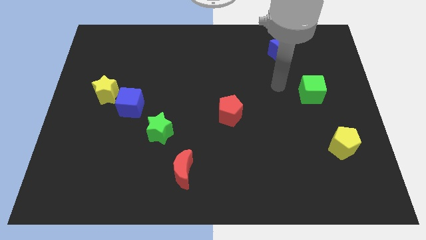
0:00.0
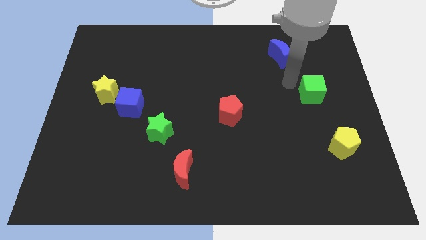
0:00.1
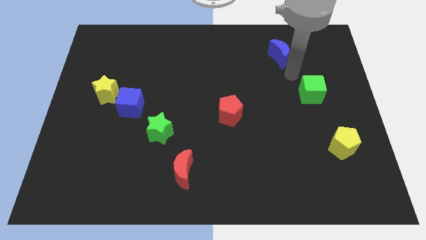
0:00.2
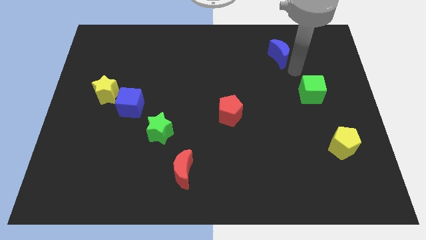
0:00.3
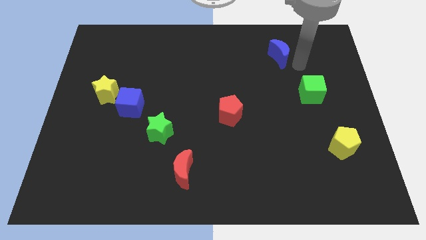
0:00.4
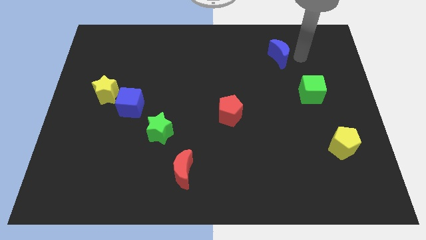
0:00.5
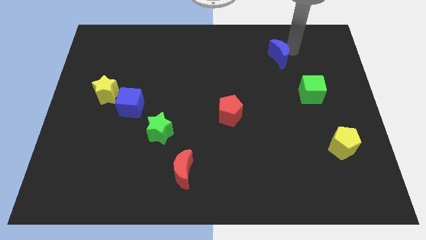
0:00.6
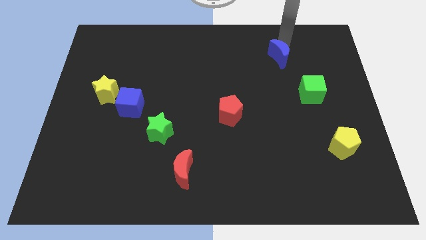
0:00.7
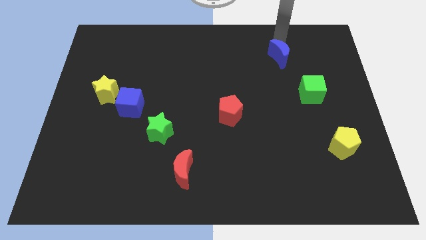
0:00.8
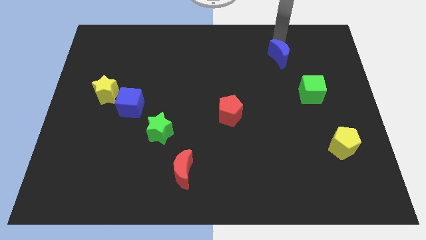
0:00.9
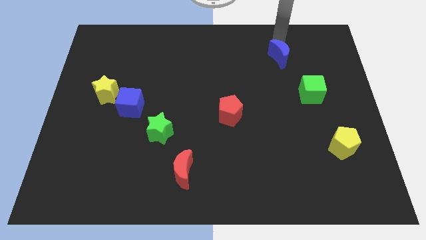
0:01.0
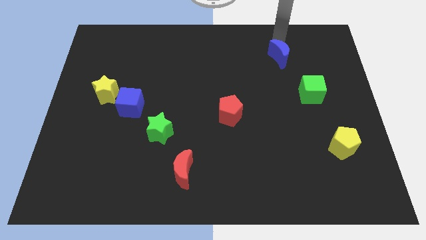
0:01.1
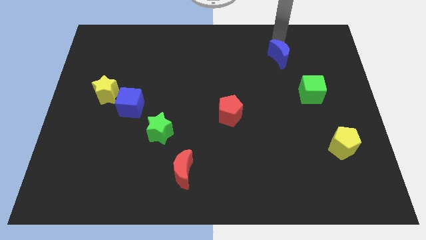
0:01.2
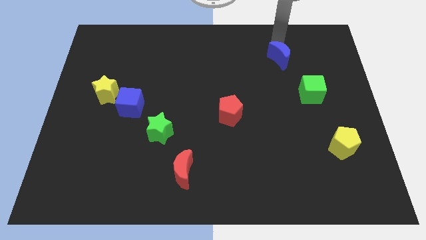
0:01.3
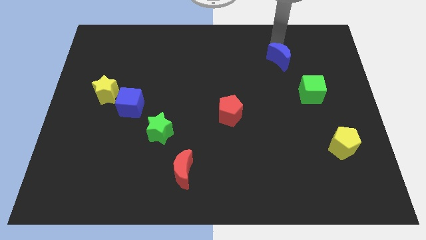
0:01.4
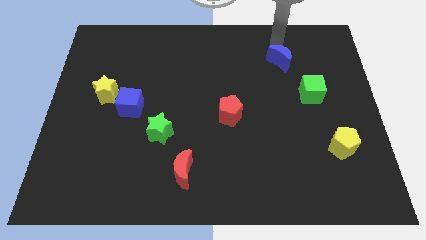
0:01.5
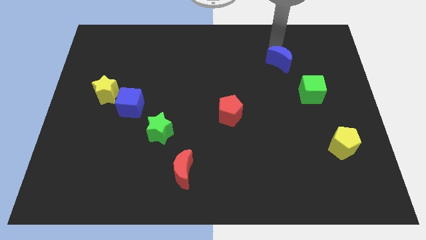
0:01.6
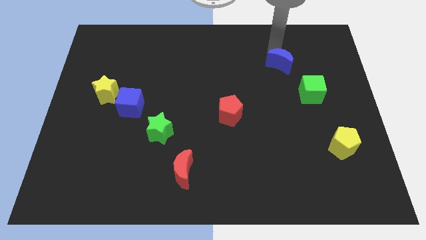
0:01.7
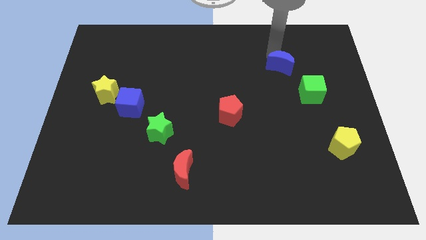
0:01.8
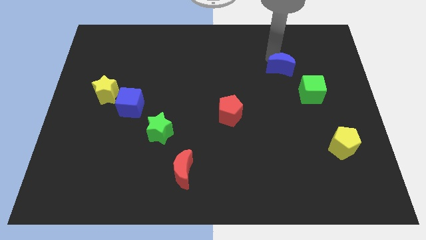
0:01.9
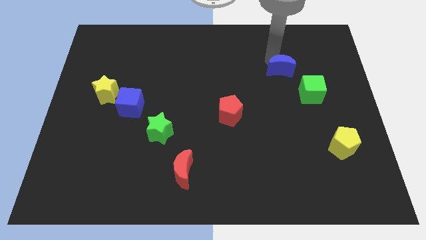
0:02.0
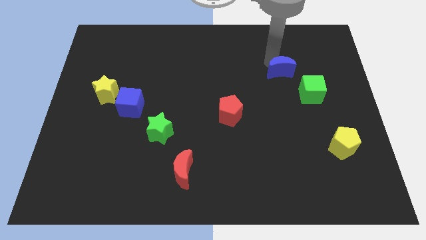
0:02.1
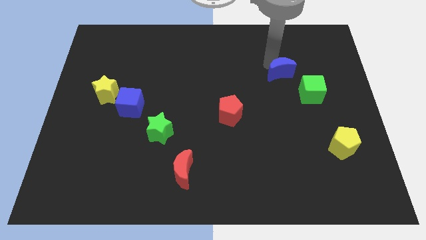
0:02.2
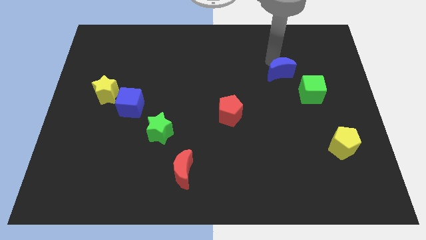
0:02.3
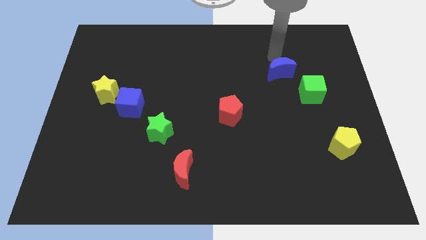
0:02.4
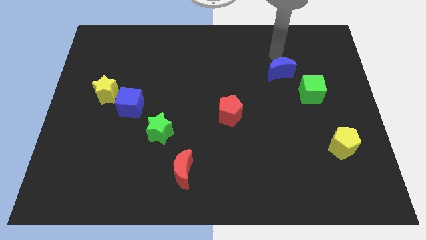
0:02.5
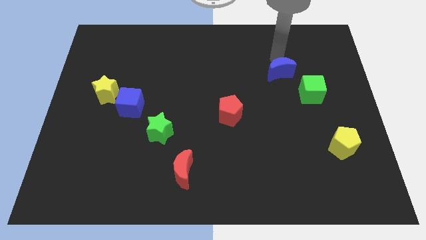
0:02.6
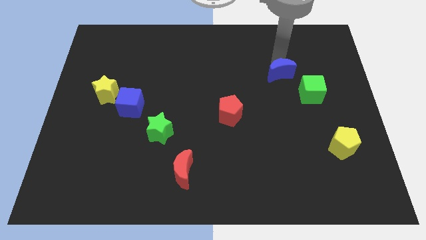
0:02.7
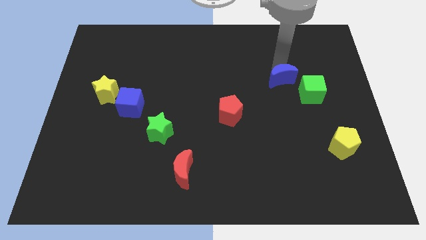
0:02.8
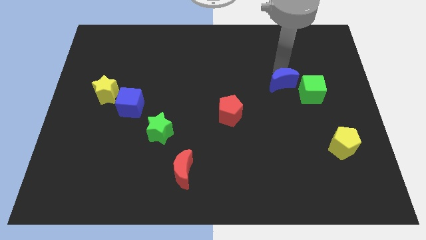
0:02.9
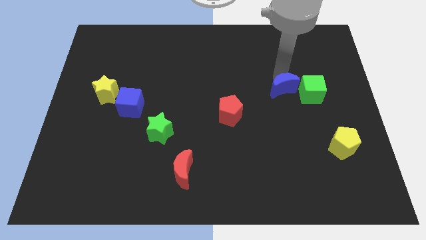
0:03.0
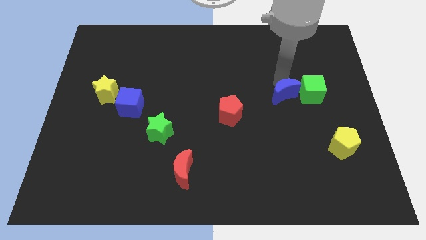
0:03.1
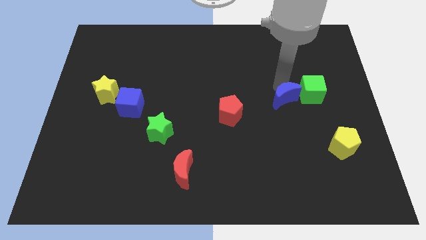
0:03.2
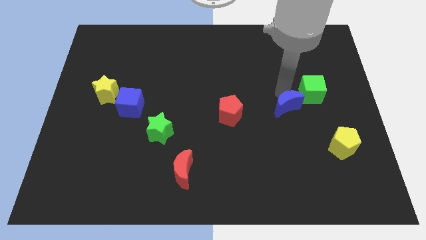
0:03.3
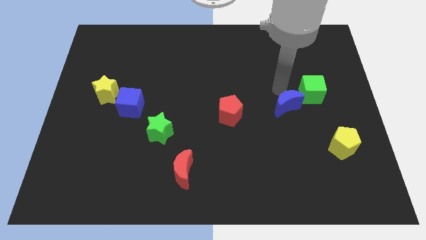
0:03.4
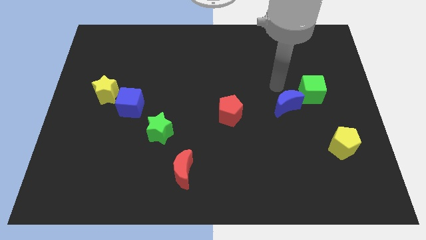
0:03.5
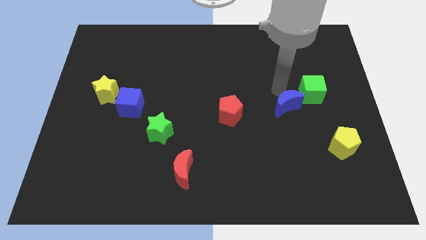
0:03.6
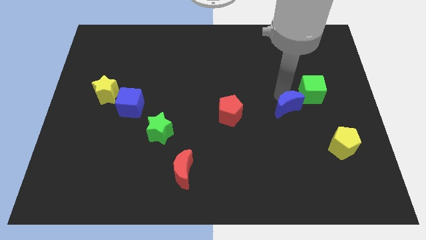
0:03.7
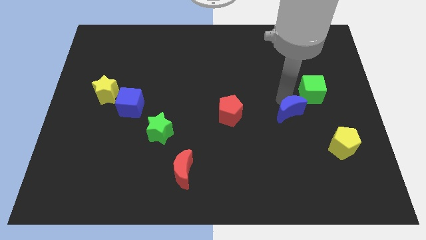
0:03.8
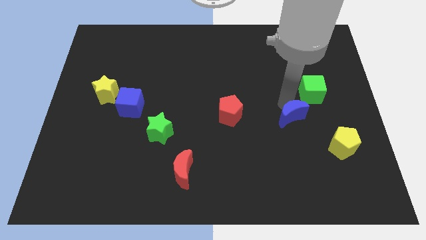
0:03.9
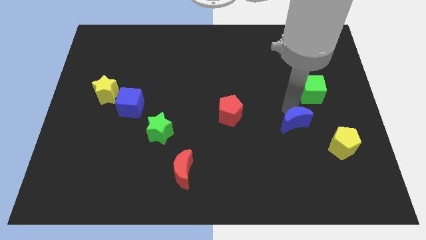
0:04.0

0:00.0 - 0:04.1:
move the blue moon downwards

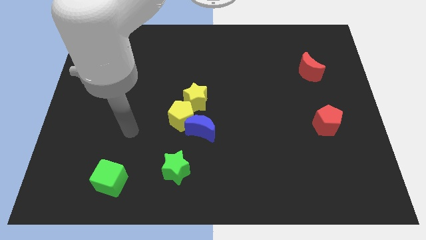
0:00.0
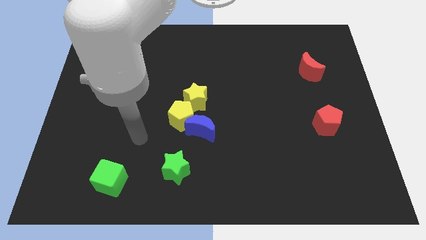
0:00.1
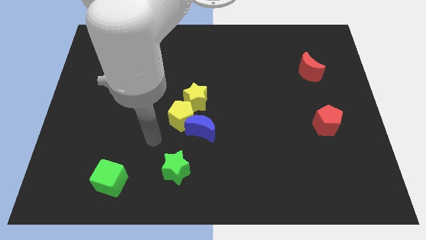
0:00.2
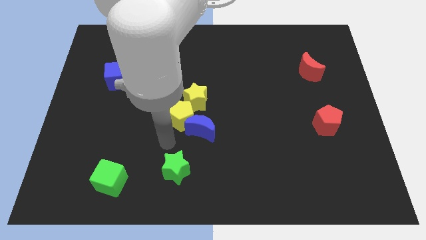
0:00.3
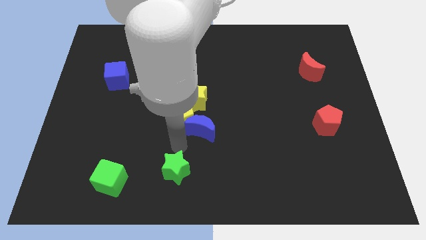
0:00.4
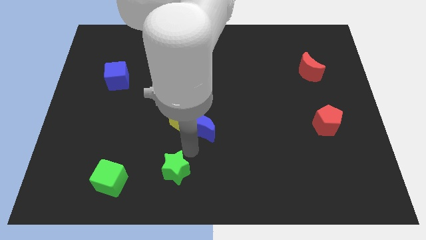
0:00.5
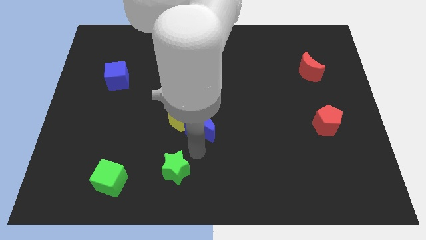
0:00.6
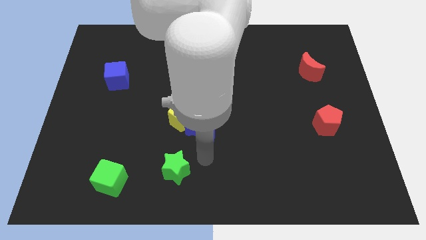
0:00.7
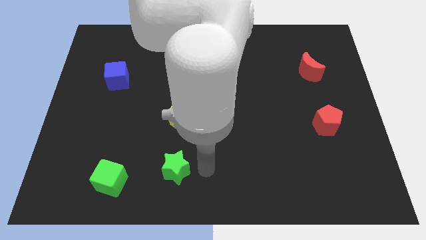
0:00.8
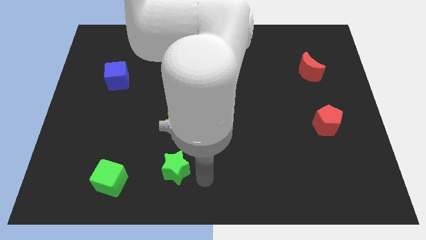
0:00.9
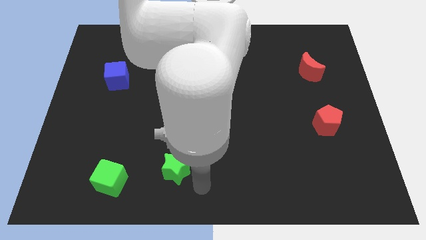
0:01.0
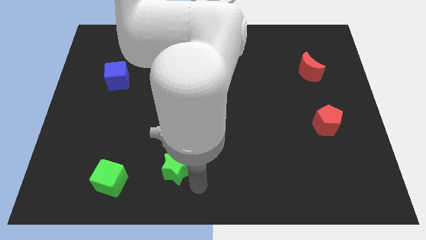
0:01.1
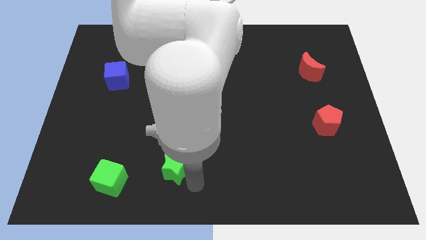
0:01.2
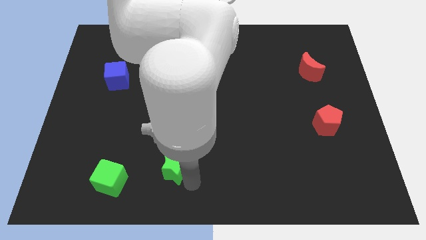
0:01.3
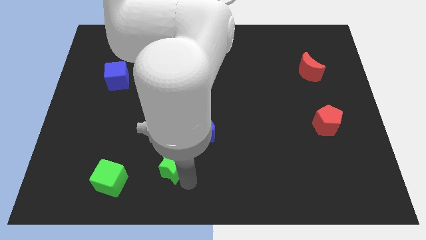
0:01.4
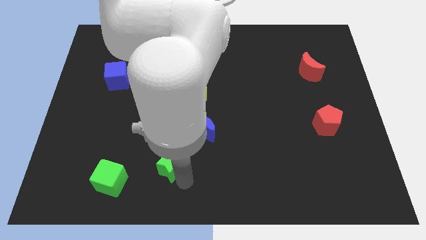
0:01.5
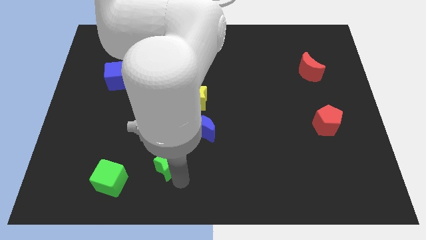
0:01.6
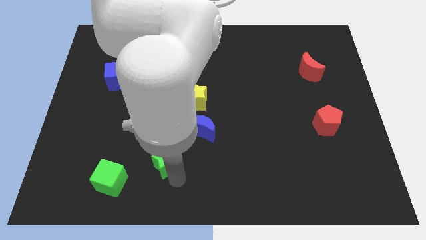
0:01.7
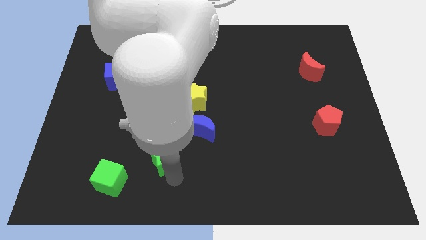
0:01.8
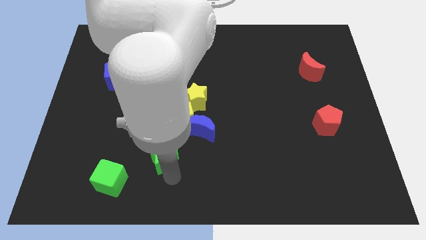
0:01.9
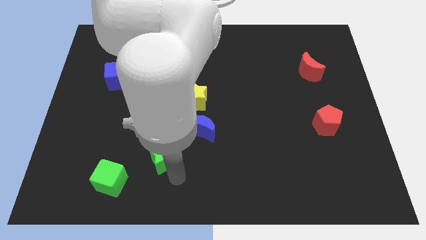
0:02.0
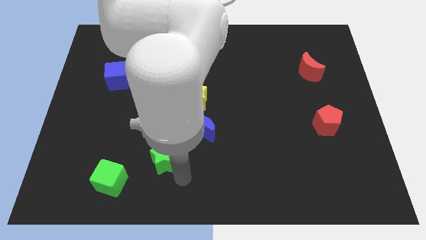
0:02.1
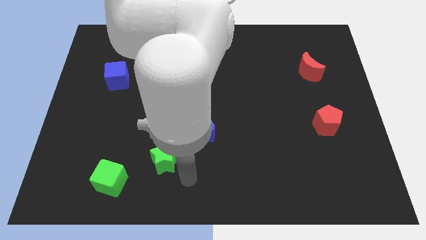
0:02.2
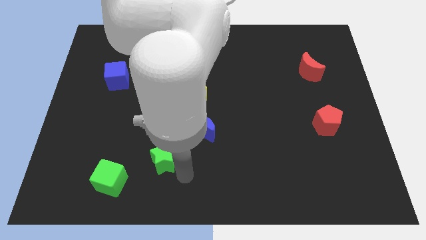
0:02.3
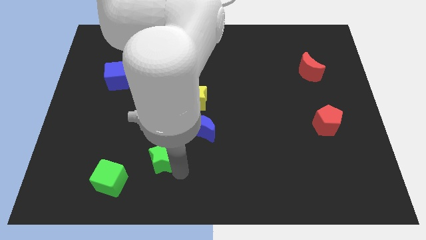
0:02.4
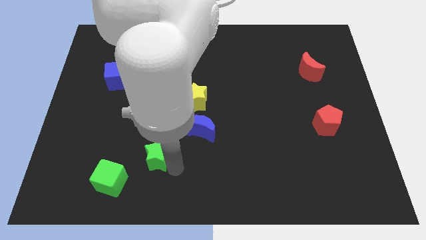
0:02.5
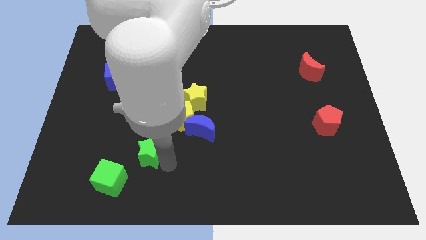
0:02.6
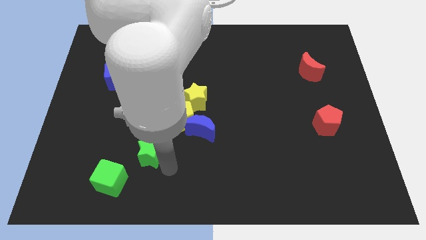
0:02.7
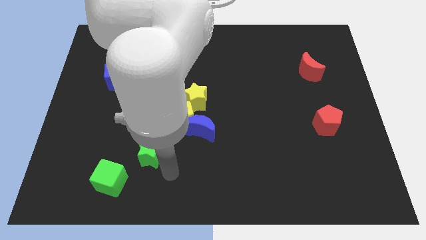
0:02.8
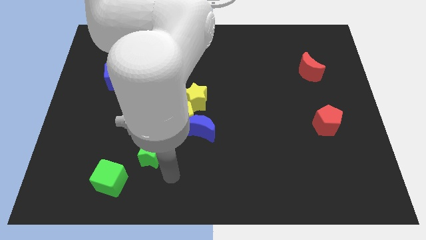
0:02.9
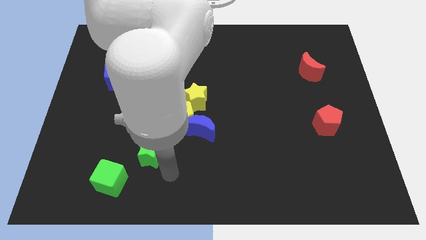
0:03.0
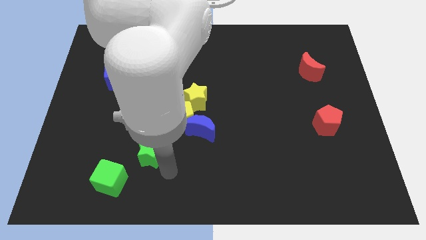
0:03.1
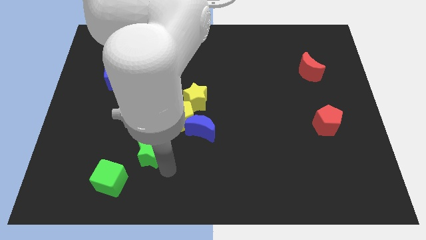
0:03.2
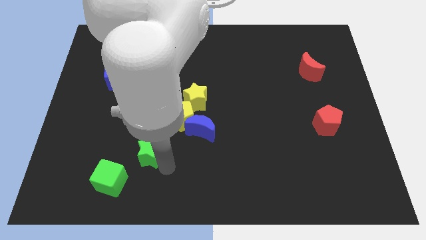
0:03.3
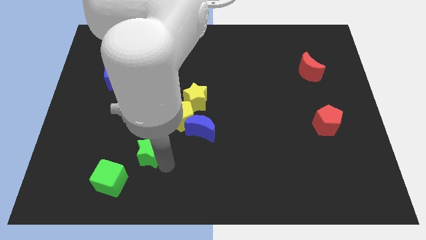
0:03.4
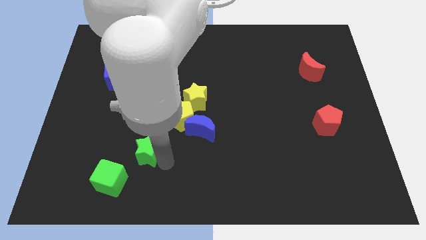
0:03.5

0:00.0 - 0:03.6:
push the green star somewhat diagonally upwards and to the left

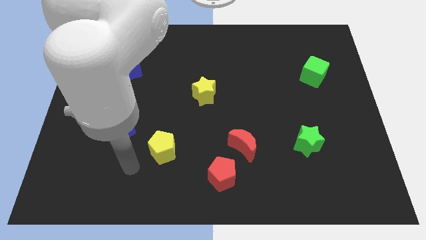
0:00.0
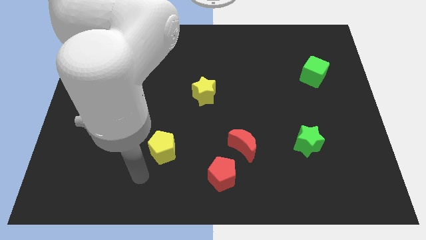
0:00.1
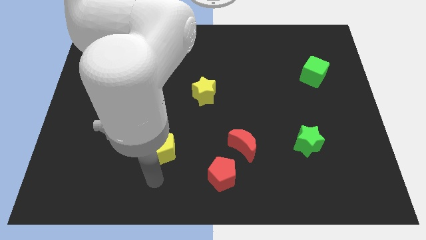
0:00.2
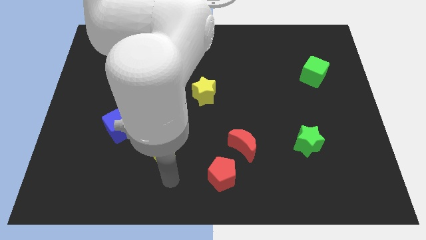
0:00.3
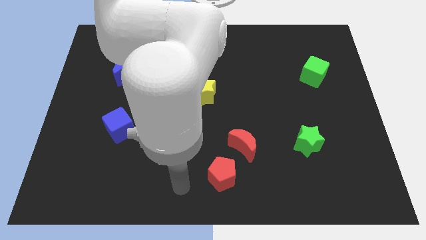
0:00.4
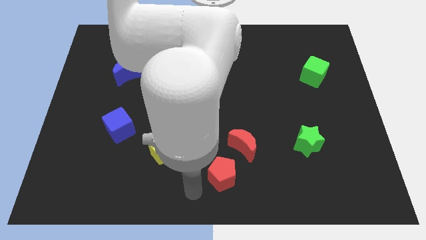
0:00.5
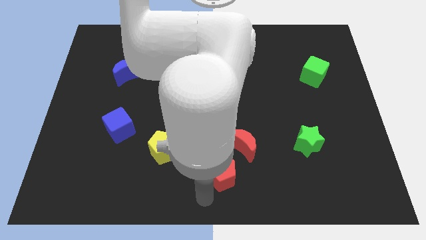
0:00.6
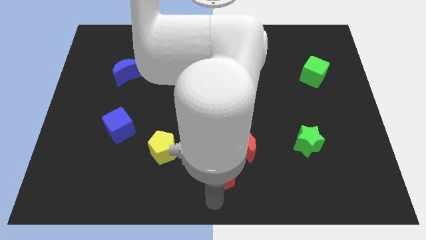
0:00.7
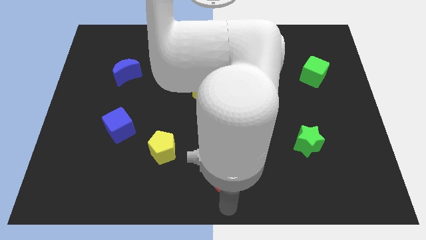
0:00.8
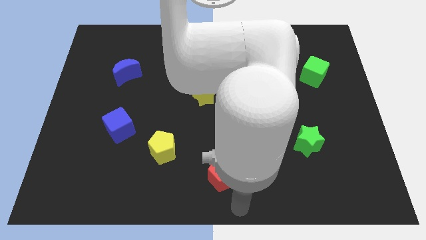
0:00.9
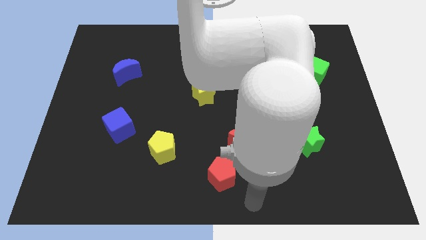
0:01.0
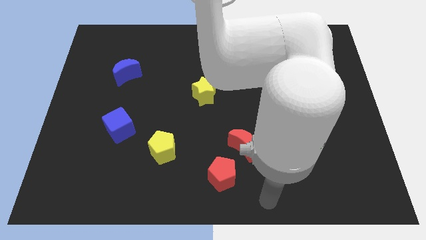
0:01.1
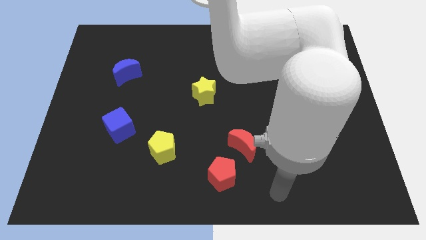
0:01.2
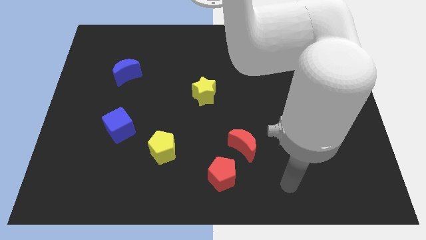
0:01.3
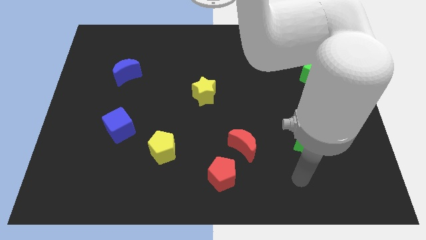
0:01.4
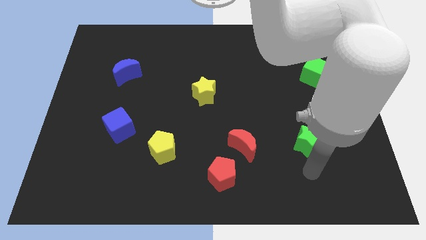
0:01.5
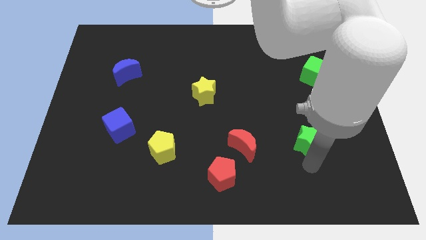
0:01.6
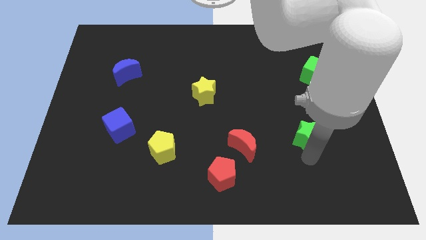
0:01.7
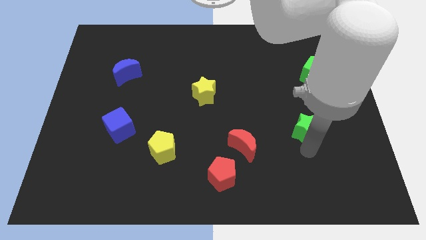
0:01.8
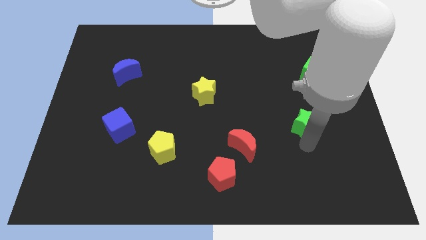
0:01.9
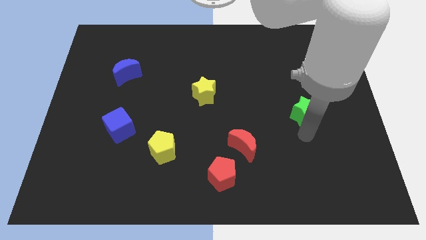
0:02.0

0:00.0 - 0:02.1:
slightly push the green star up
